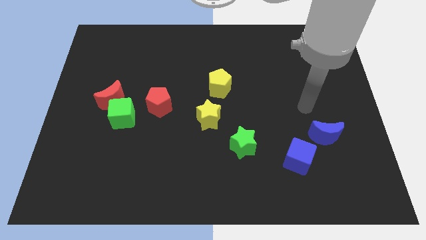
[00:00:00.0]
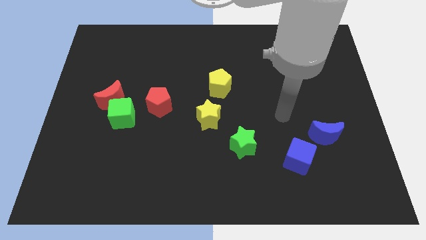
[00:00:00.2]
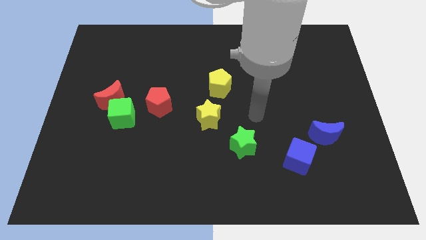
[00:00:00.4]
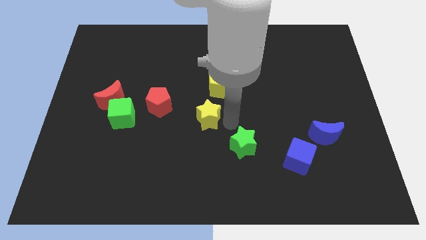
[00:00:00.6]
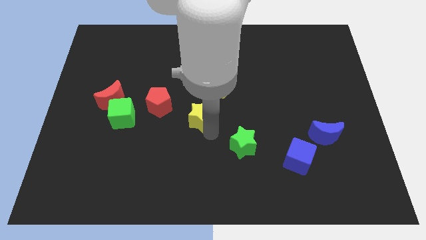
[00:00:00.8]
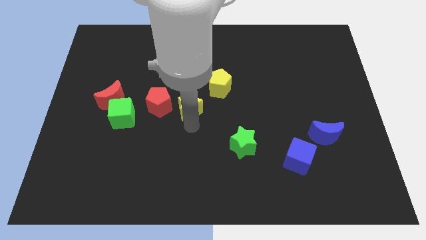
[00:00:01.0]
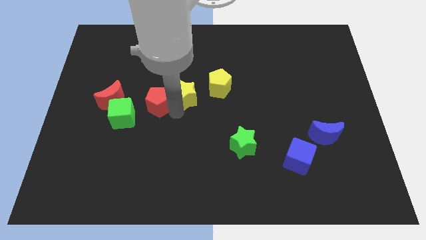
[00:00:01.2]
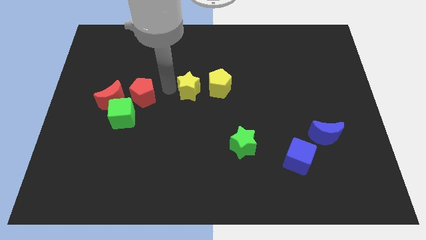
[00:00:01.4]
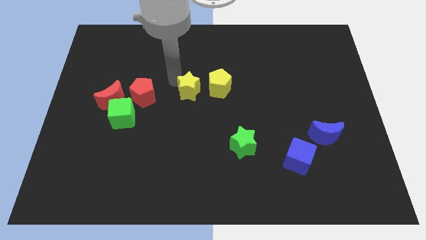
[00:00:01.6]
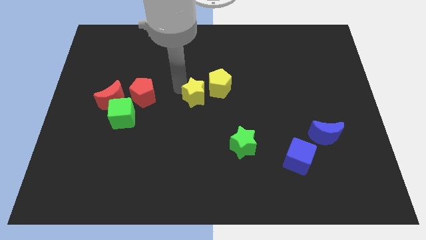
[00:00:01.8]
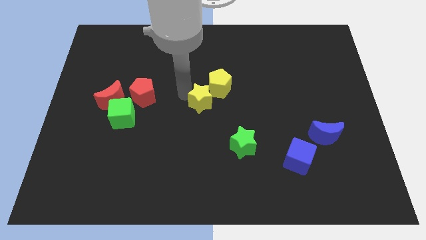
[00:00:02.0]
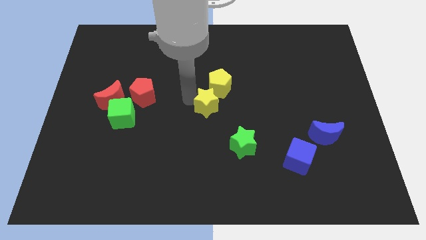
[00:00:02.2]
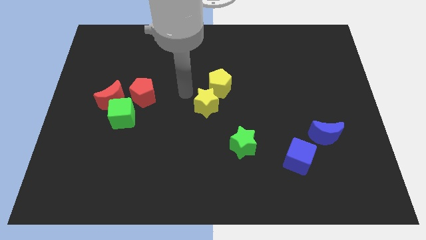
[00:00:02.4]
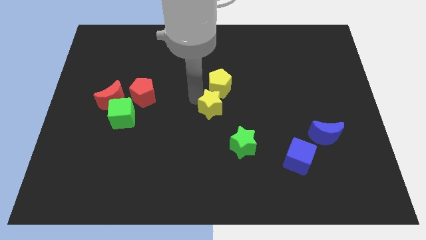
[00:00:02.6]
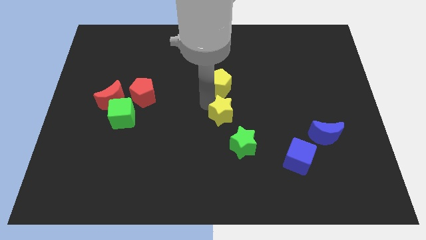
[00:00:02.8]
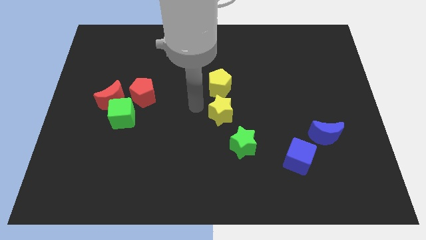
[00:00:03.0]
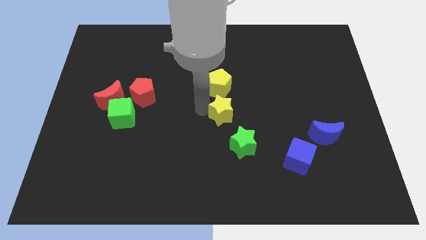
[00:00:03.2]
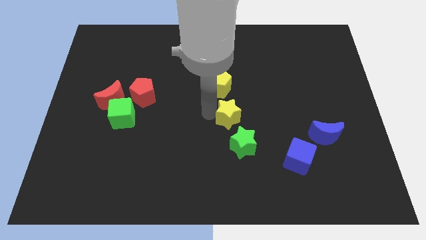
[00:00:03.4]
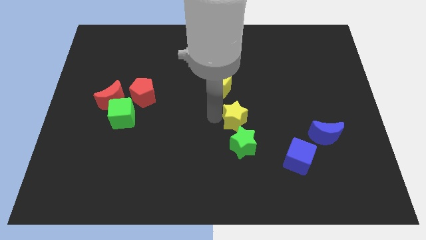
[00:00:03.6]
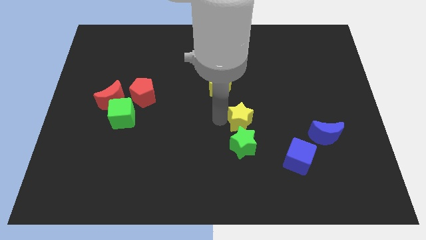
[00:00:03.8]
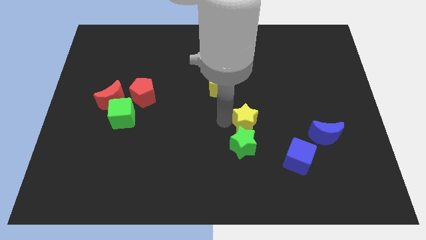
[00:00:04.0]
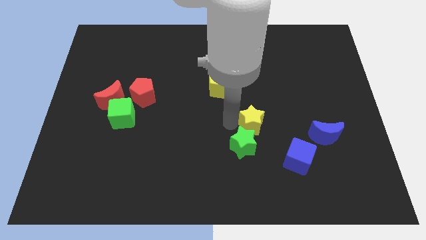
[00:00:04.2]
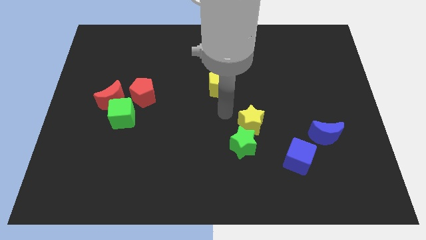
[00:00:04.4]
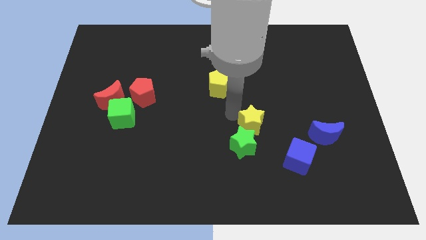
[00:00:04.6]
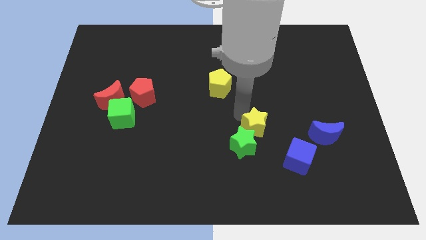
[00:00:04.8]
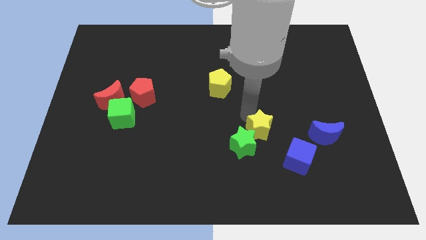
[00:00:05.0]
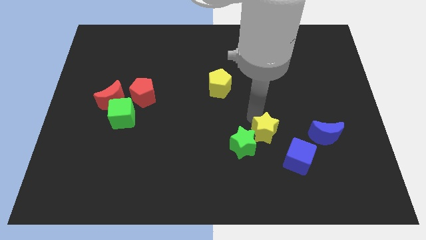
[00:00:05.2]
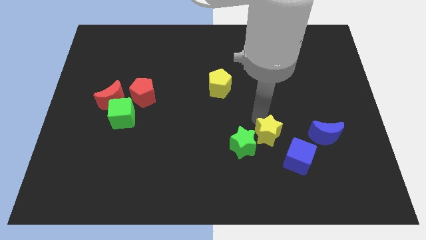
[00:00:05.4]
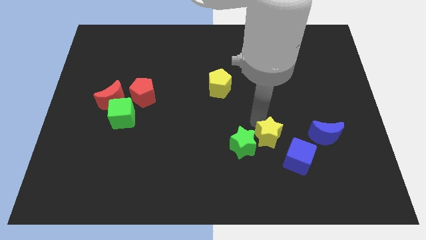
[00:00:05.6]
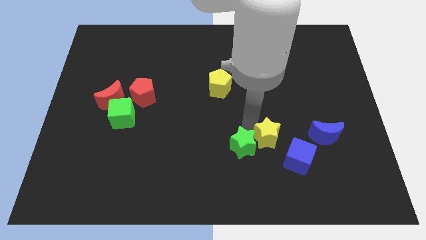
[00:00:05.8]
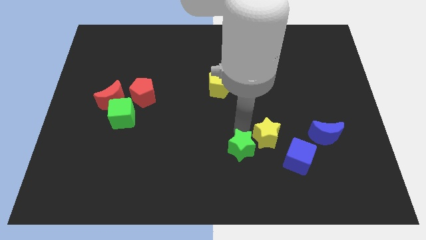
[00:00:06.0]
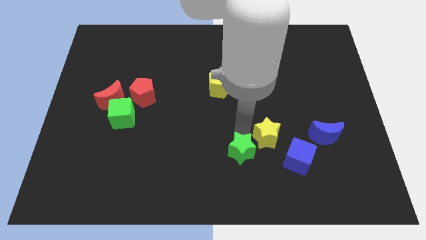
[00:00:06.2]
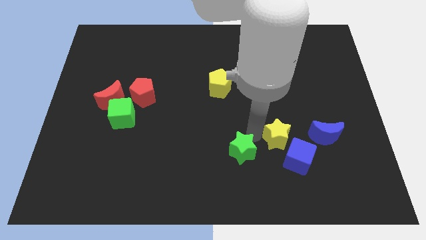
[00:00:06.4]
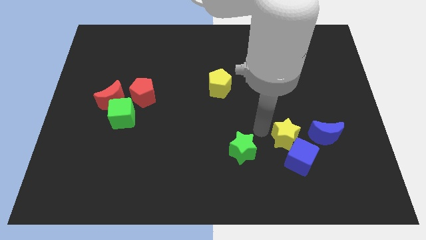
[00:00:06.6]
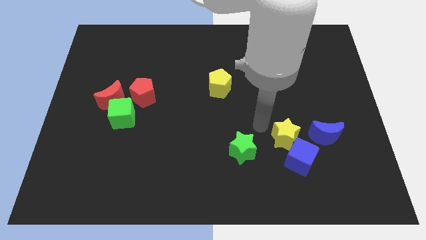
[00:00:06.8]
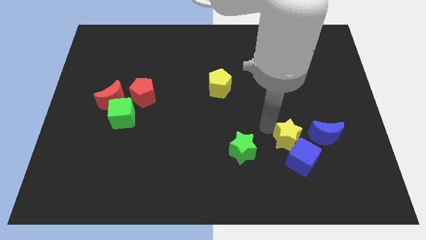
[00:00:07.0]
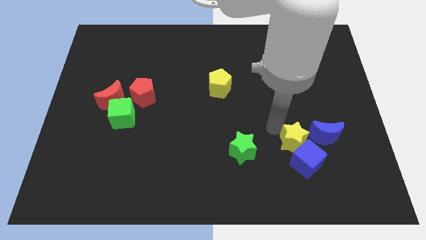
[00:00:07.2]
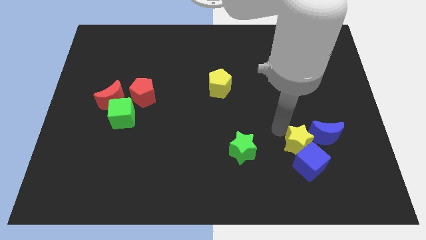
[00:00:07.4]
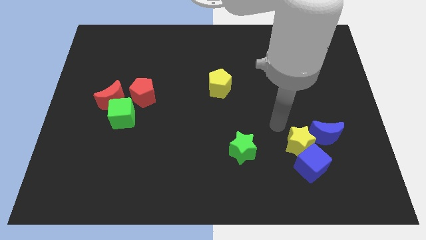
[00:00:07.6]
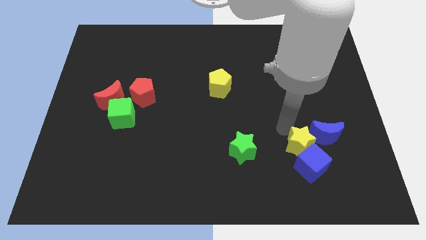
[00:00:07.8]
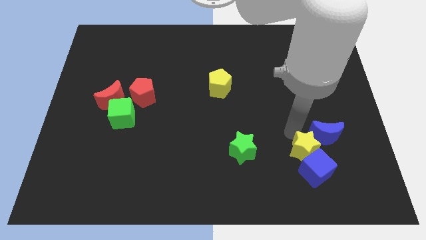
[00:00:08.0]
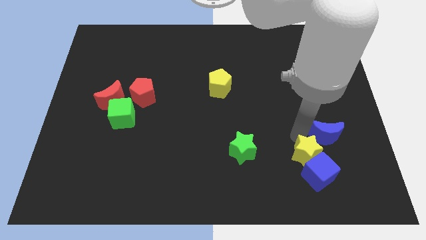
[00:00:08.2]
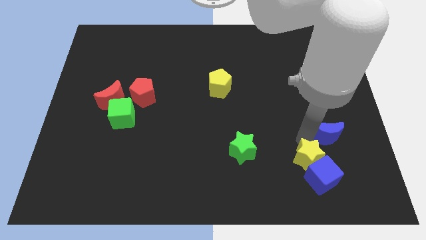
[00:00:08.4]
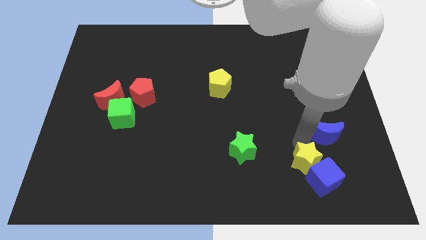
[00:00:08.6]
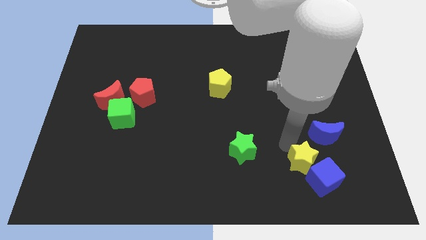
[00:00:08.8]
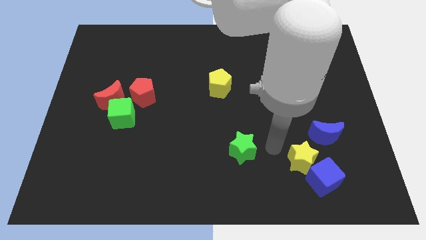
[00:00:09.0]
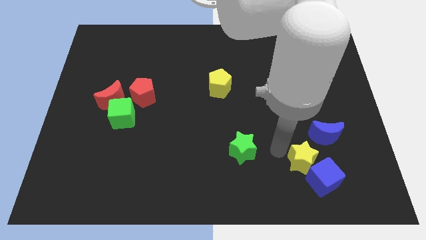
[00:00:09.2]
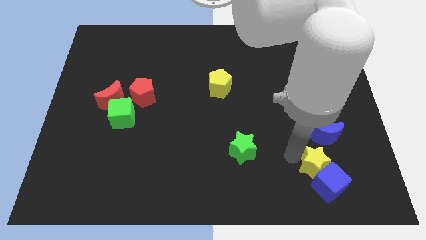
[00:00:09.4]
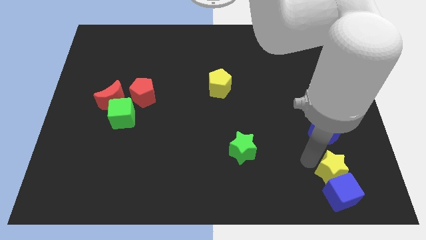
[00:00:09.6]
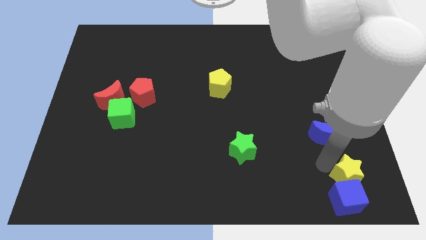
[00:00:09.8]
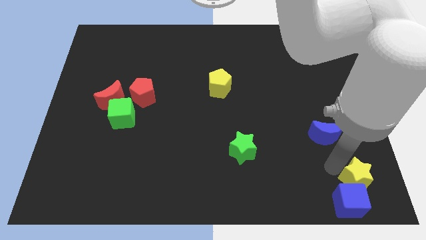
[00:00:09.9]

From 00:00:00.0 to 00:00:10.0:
move the yellow star to the bottom right

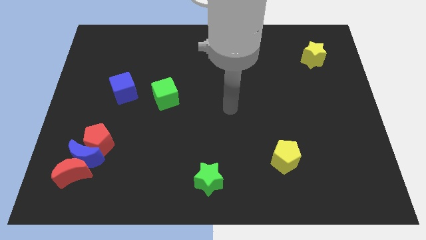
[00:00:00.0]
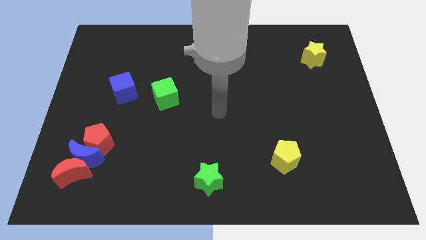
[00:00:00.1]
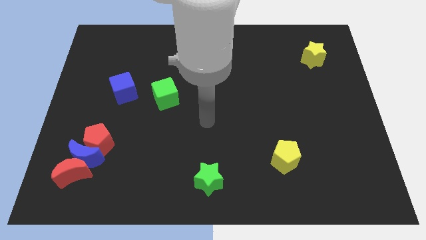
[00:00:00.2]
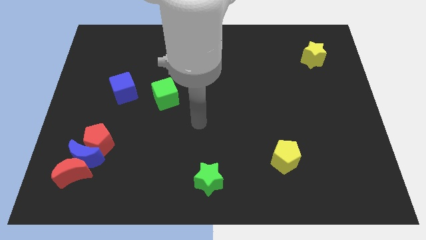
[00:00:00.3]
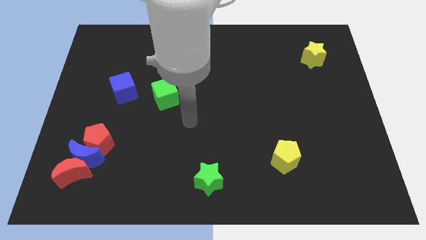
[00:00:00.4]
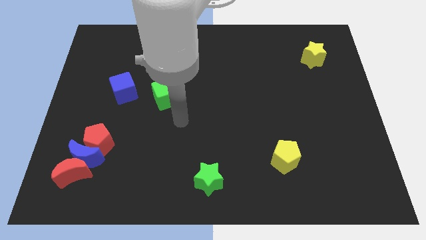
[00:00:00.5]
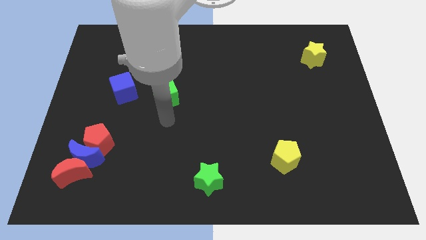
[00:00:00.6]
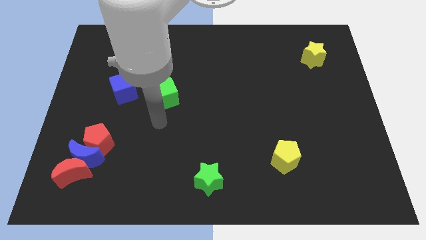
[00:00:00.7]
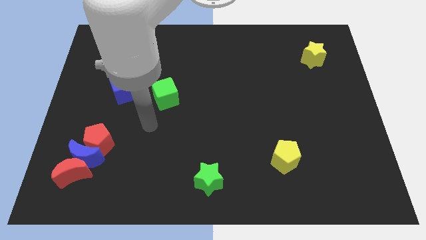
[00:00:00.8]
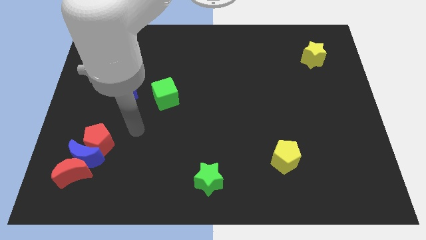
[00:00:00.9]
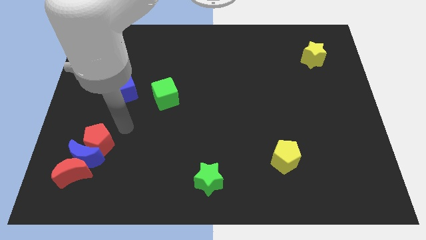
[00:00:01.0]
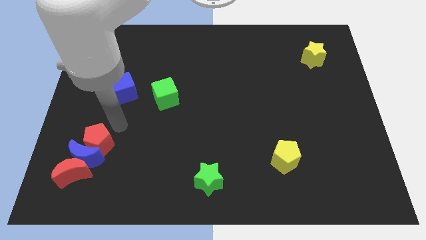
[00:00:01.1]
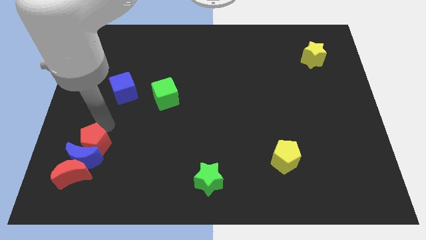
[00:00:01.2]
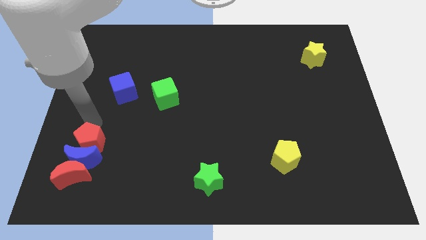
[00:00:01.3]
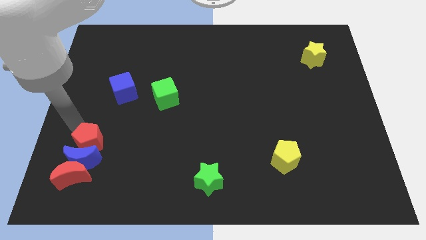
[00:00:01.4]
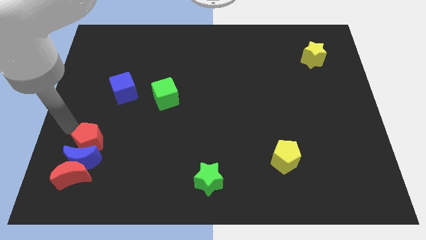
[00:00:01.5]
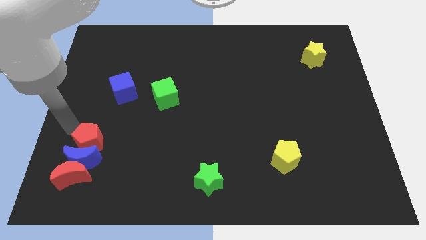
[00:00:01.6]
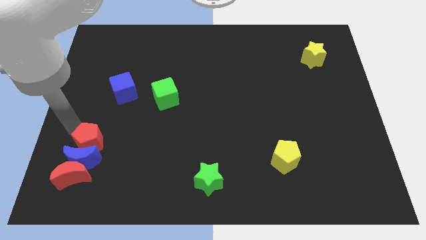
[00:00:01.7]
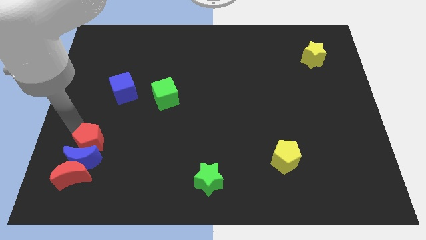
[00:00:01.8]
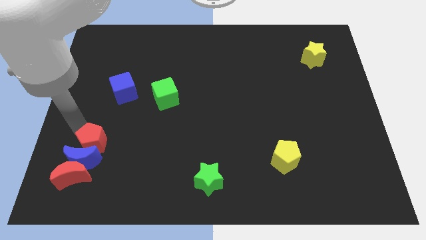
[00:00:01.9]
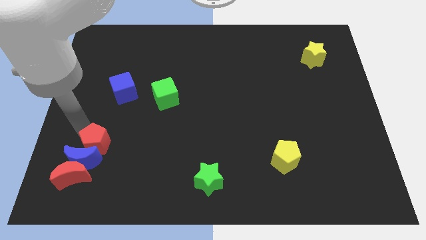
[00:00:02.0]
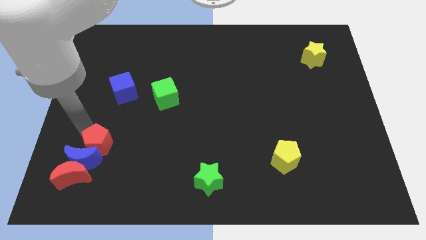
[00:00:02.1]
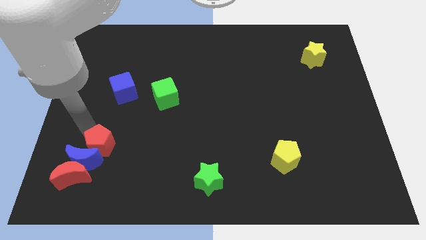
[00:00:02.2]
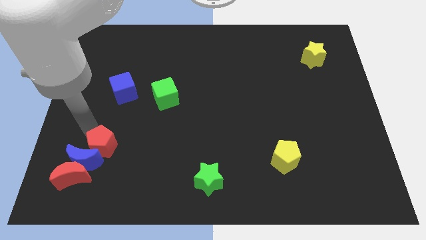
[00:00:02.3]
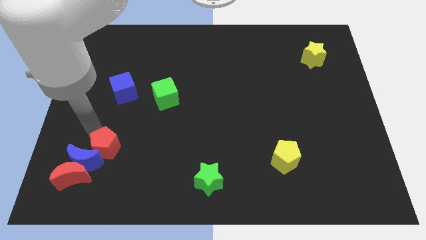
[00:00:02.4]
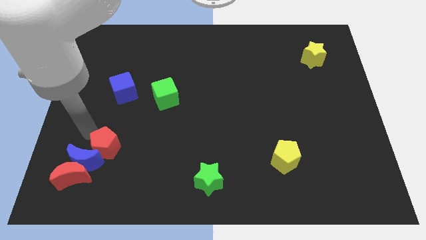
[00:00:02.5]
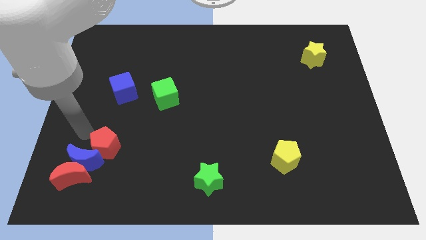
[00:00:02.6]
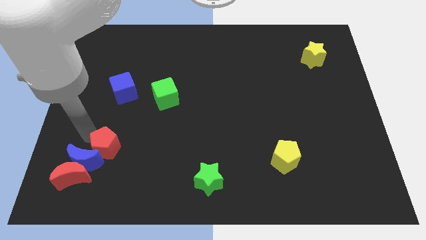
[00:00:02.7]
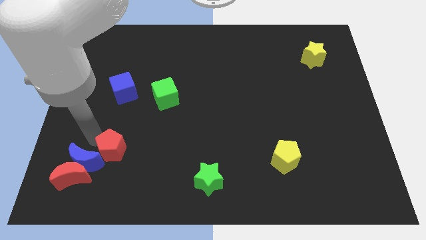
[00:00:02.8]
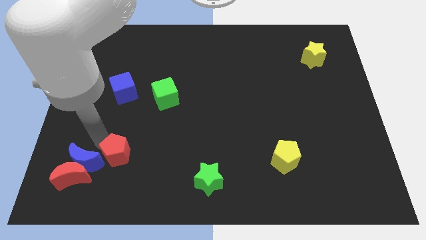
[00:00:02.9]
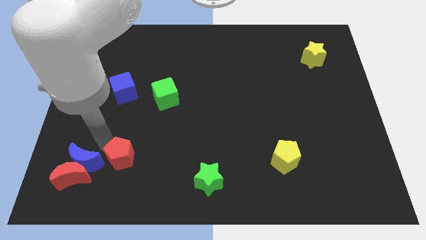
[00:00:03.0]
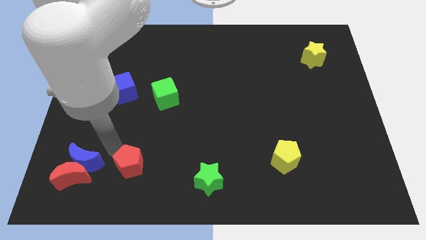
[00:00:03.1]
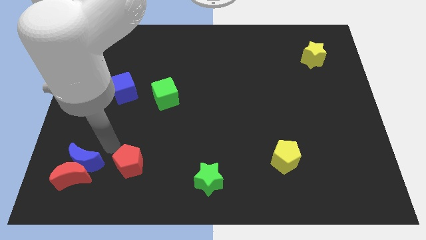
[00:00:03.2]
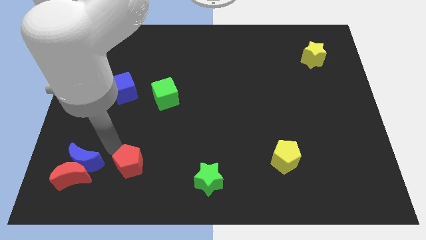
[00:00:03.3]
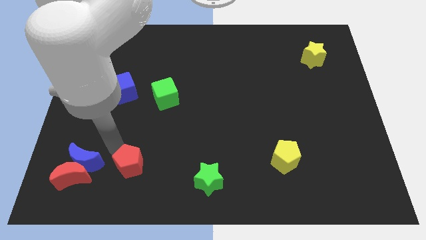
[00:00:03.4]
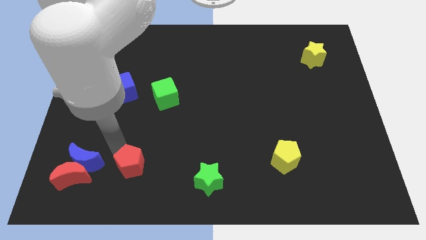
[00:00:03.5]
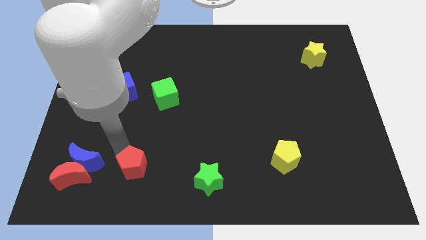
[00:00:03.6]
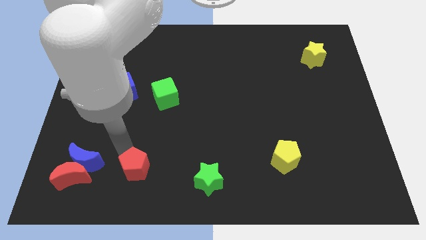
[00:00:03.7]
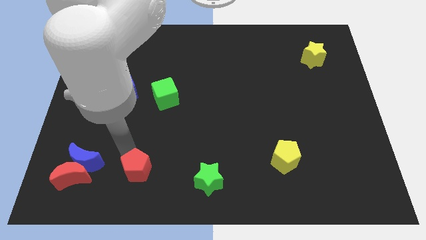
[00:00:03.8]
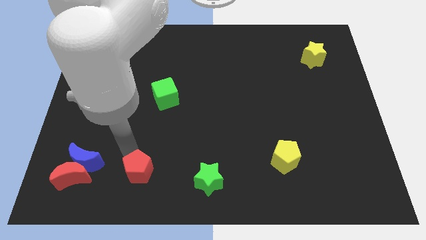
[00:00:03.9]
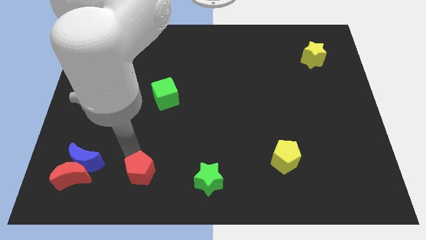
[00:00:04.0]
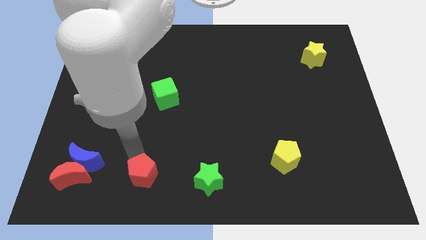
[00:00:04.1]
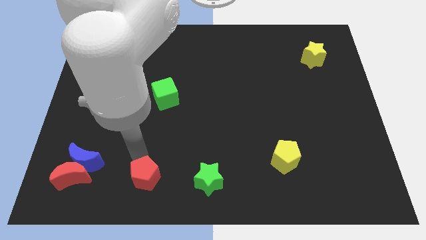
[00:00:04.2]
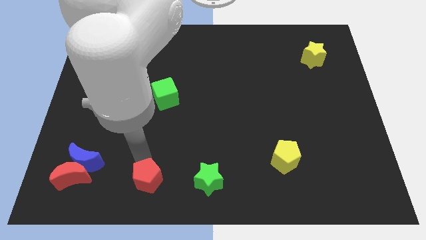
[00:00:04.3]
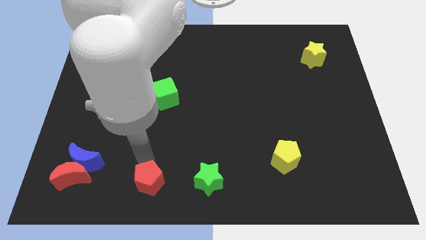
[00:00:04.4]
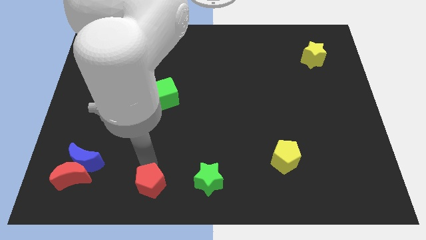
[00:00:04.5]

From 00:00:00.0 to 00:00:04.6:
put the red pentagon to the bottom side
